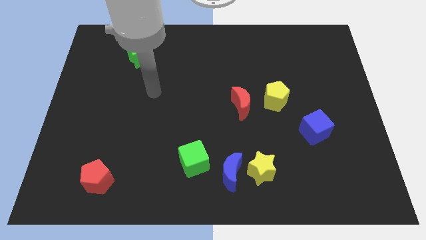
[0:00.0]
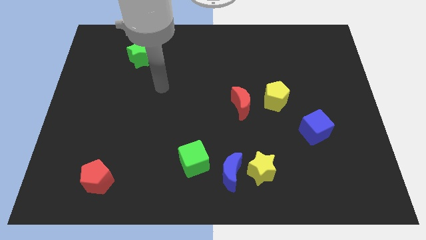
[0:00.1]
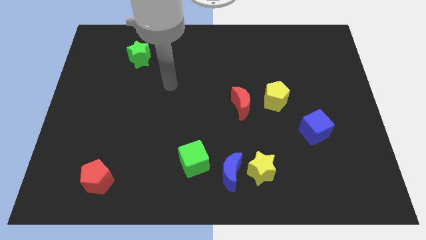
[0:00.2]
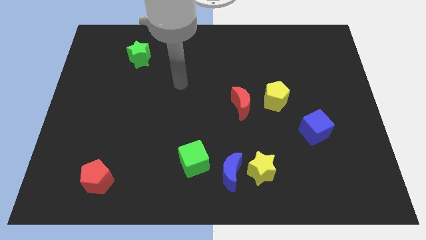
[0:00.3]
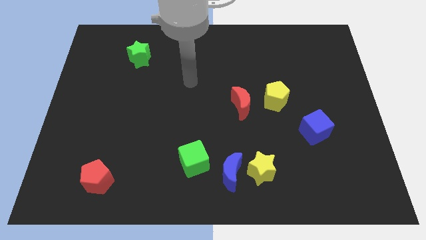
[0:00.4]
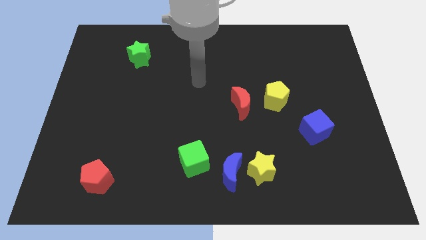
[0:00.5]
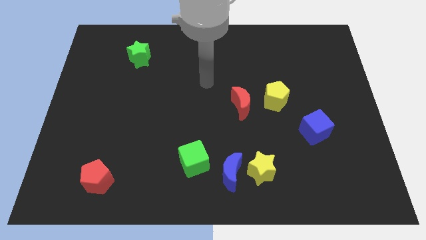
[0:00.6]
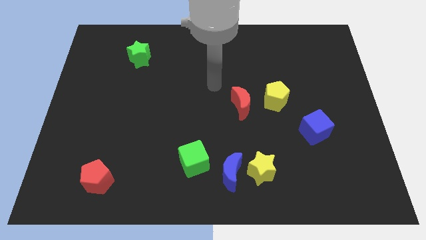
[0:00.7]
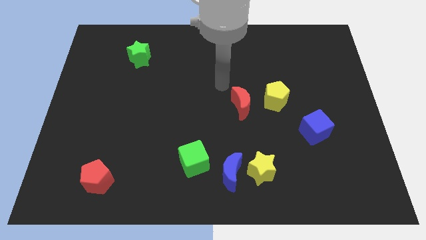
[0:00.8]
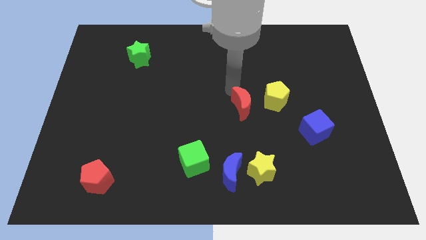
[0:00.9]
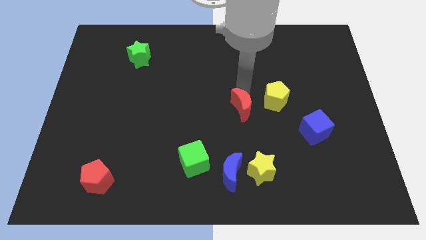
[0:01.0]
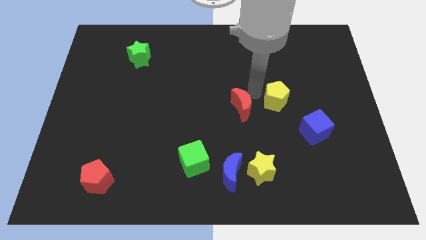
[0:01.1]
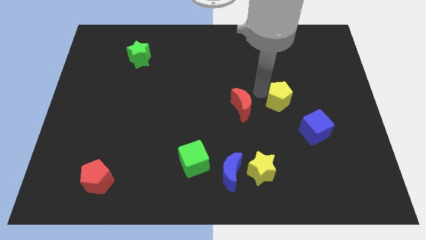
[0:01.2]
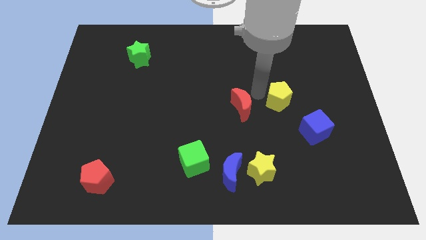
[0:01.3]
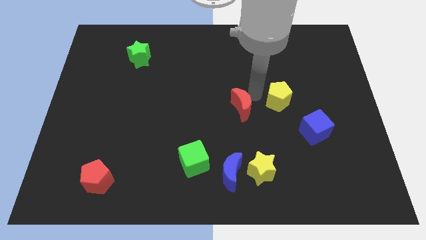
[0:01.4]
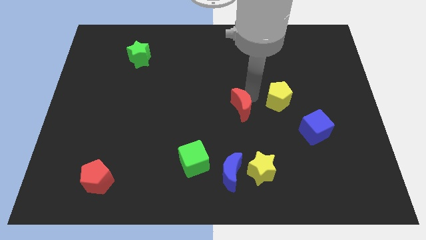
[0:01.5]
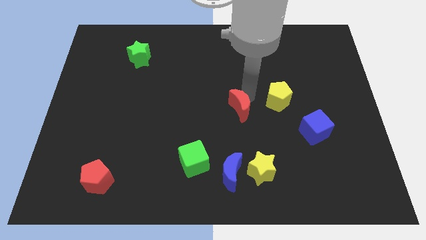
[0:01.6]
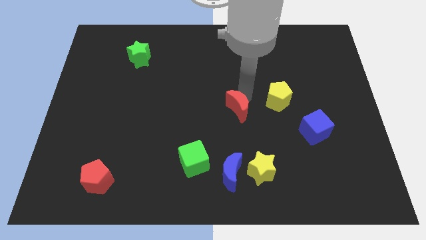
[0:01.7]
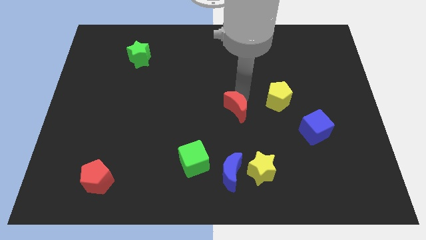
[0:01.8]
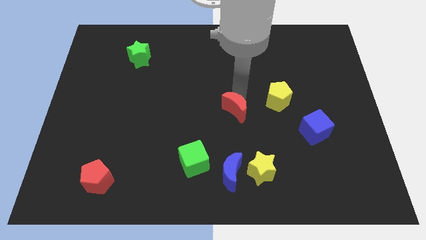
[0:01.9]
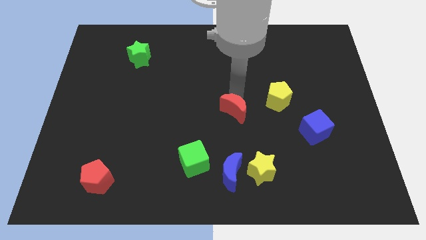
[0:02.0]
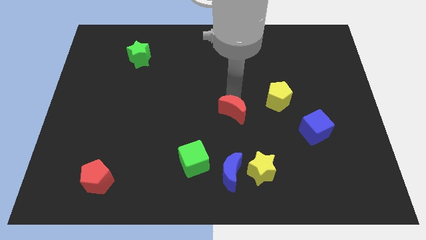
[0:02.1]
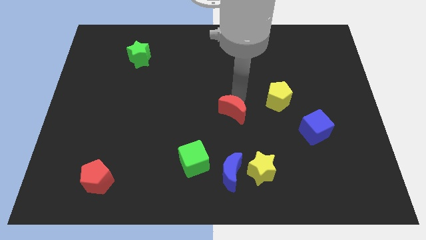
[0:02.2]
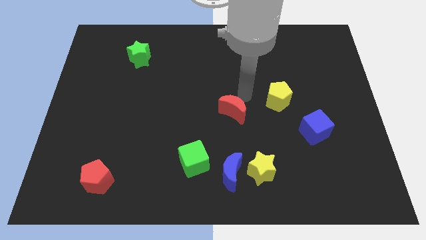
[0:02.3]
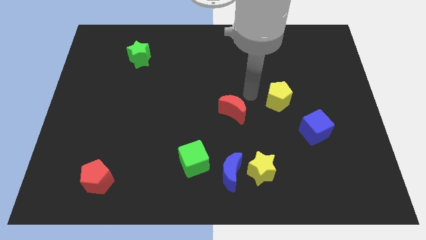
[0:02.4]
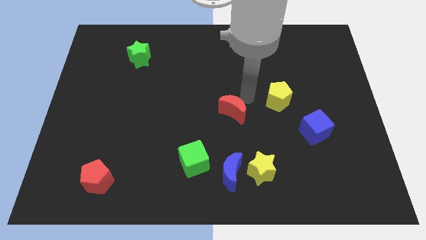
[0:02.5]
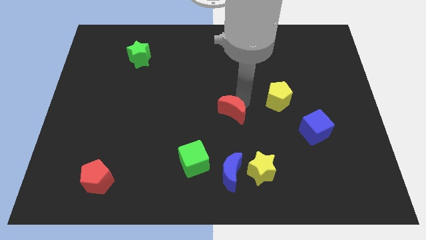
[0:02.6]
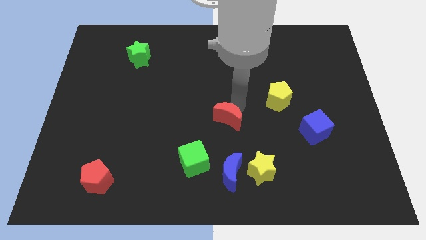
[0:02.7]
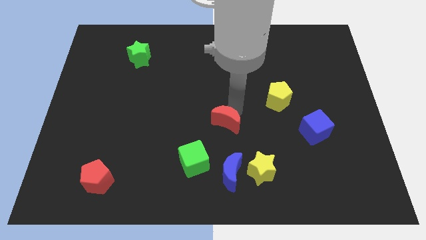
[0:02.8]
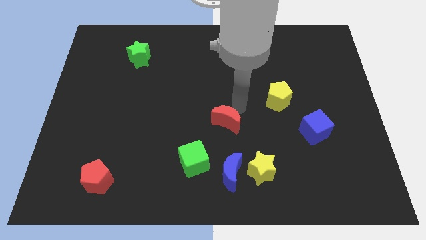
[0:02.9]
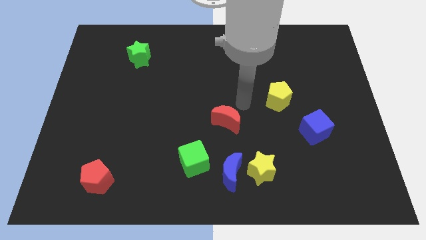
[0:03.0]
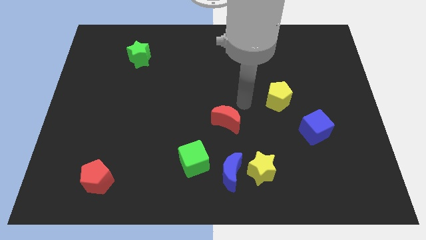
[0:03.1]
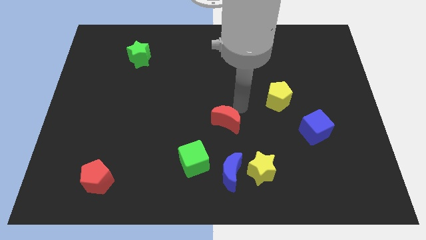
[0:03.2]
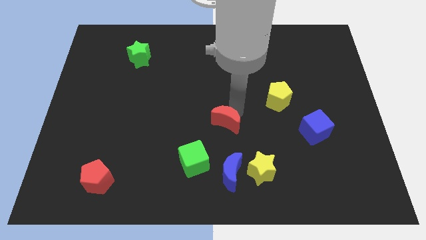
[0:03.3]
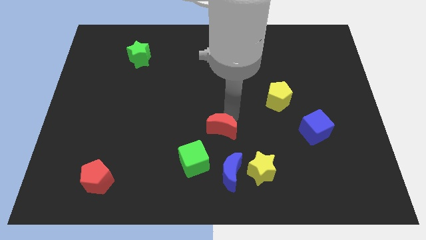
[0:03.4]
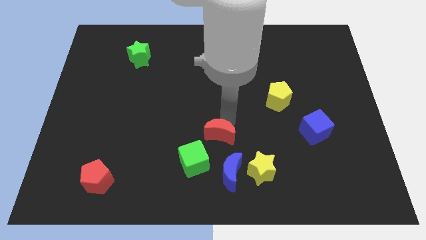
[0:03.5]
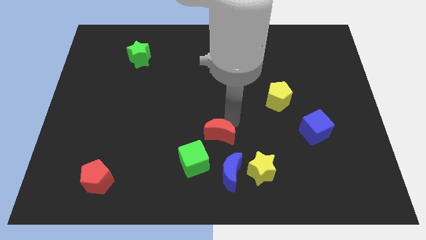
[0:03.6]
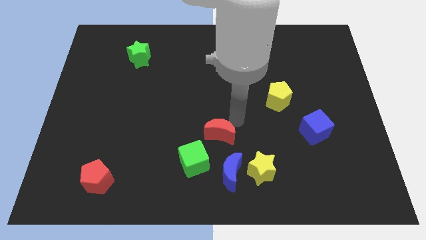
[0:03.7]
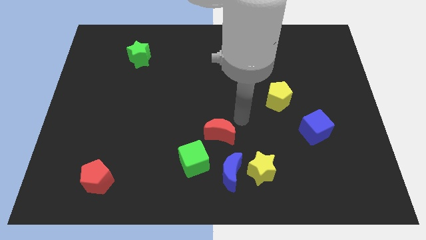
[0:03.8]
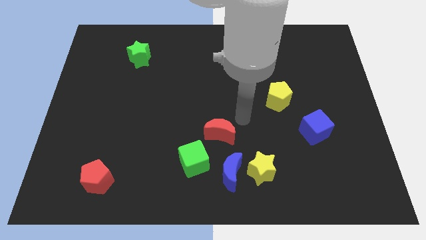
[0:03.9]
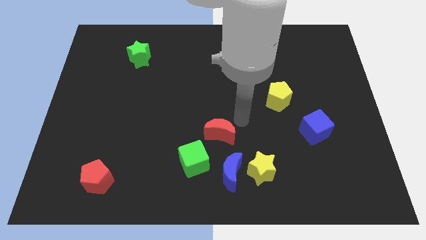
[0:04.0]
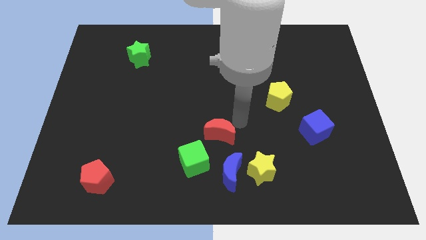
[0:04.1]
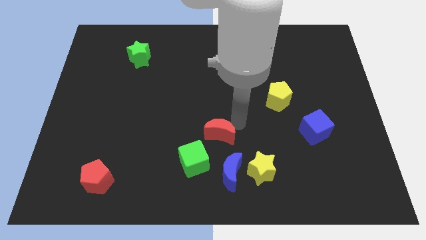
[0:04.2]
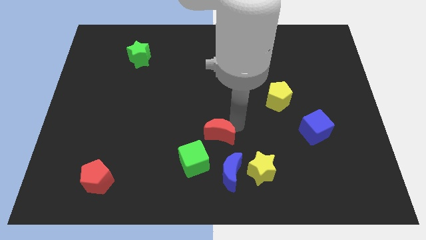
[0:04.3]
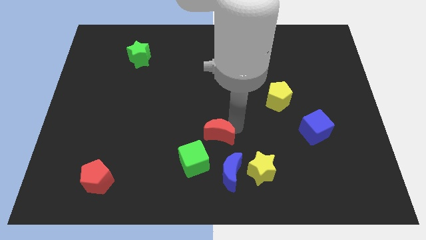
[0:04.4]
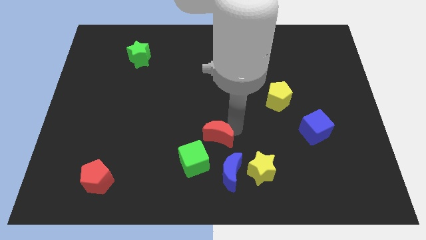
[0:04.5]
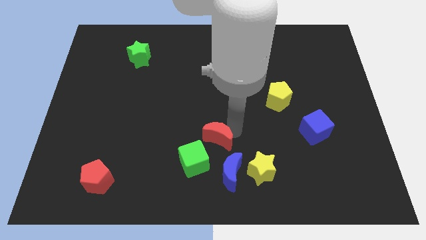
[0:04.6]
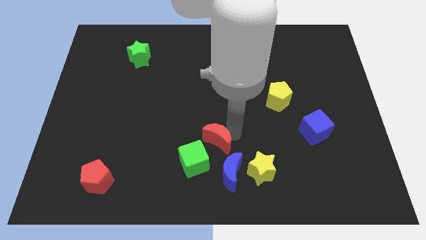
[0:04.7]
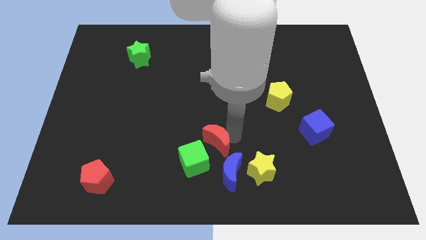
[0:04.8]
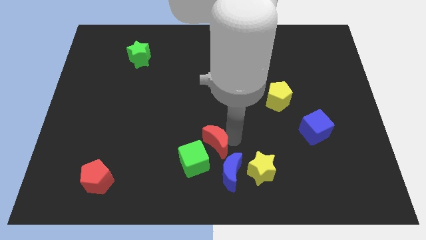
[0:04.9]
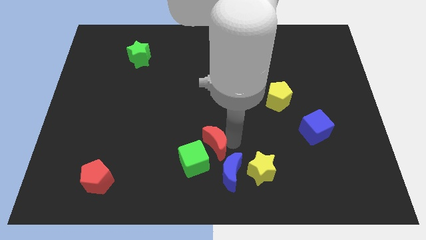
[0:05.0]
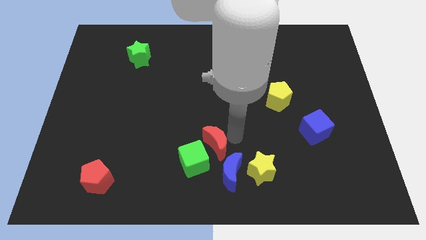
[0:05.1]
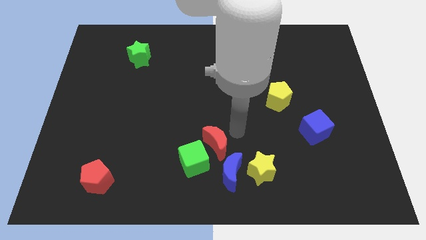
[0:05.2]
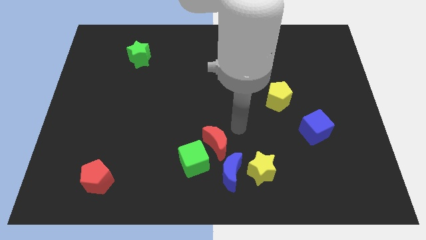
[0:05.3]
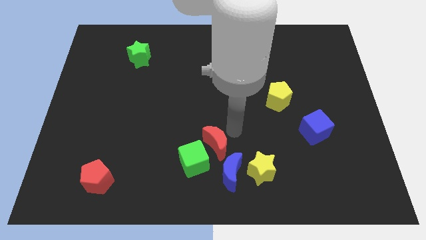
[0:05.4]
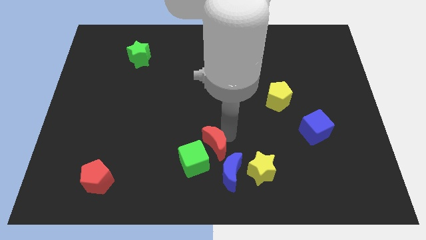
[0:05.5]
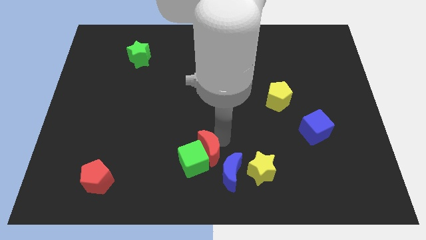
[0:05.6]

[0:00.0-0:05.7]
move the red moon to the green cube

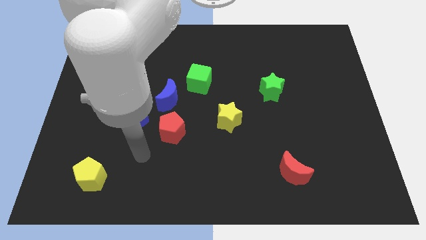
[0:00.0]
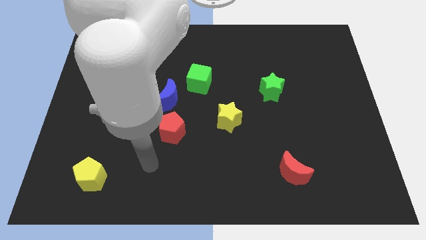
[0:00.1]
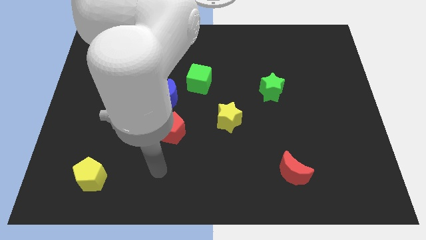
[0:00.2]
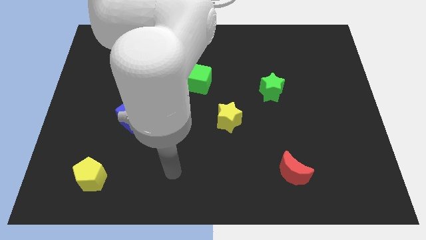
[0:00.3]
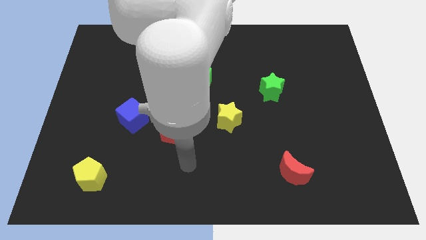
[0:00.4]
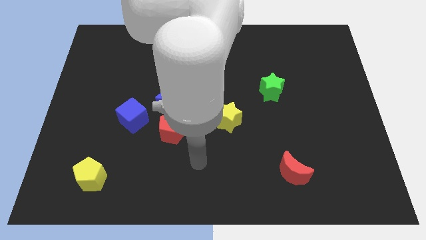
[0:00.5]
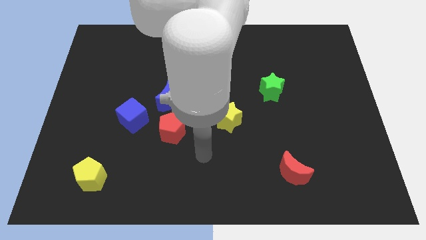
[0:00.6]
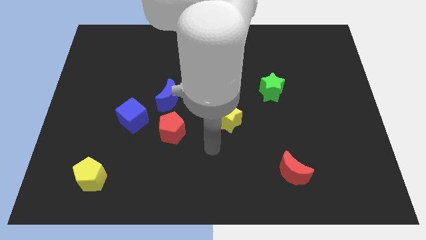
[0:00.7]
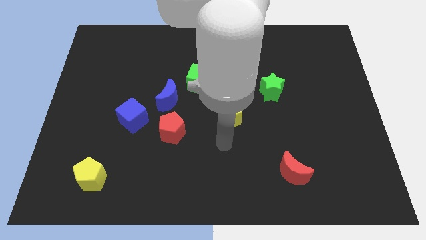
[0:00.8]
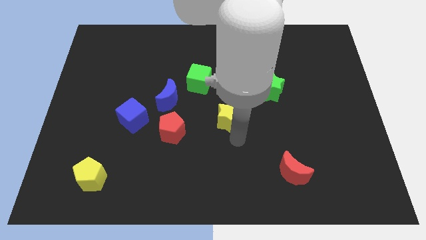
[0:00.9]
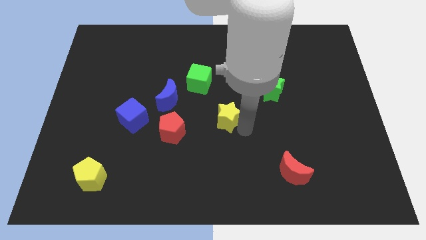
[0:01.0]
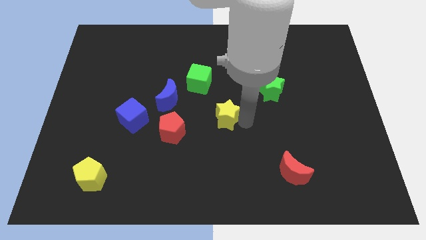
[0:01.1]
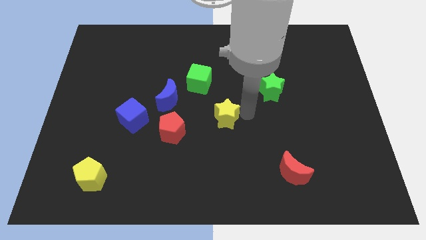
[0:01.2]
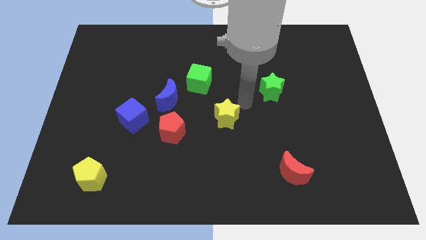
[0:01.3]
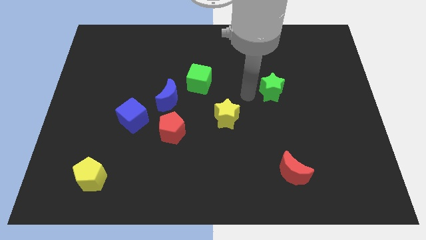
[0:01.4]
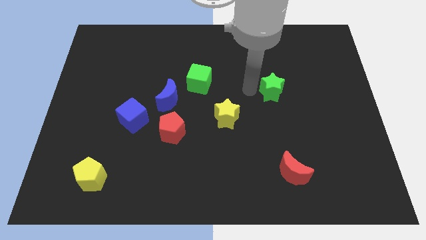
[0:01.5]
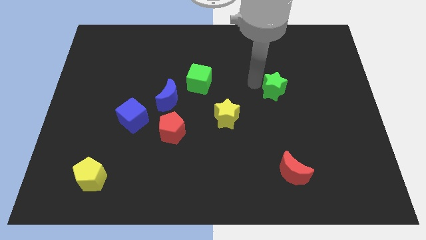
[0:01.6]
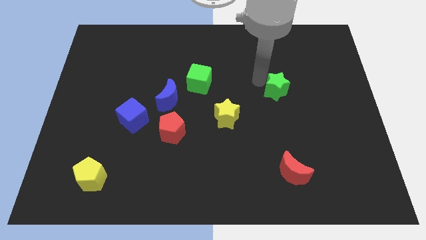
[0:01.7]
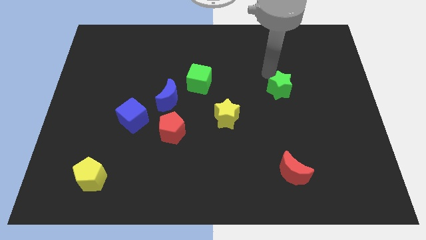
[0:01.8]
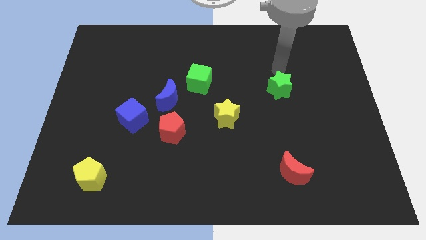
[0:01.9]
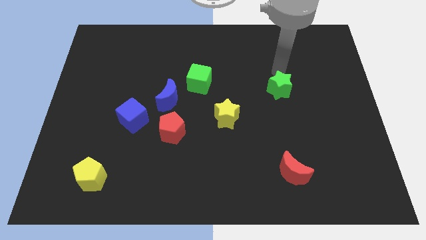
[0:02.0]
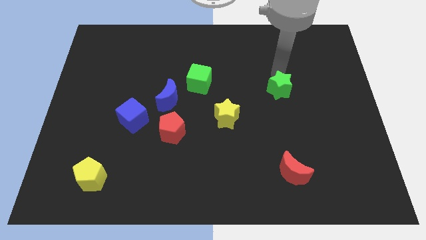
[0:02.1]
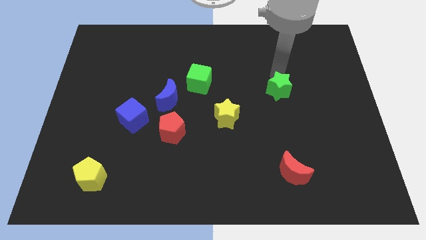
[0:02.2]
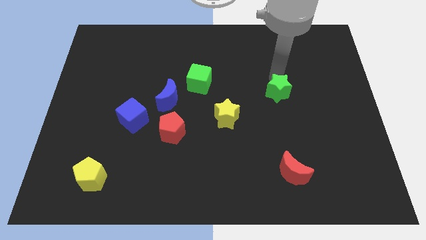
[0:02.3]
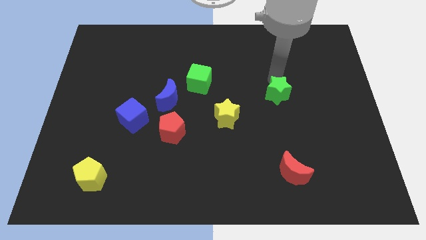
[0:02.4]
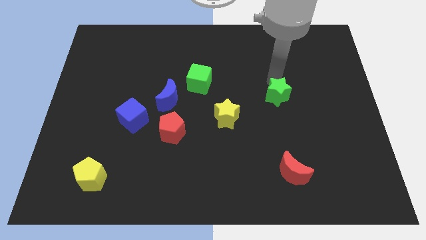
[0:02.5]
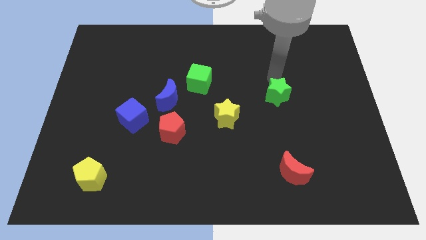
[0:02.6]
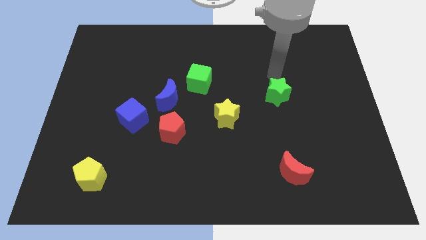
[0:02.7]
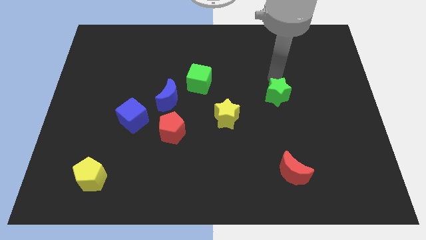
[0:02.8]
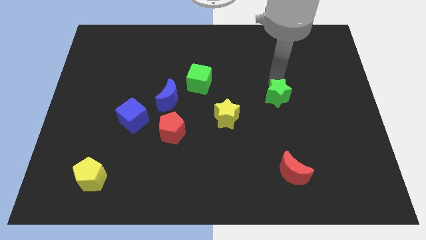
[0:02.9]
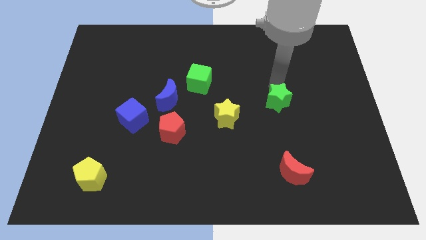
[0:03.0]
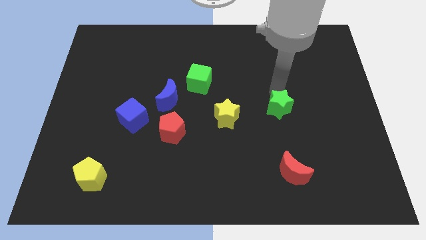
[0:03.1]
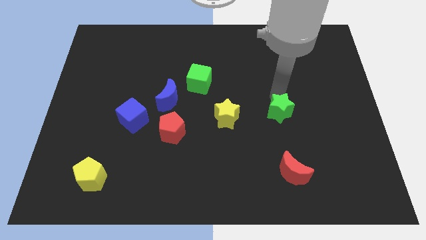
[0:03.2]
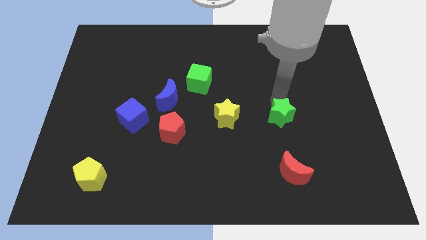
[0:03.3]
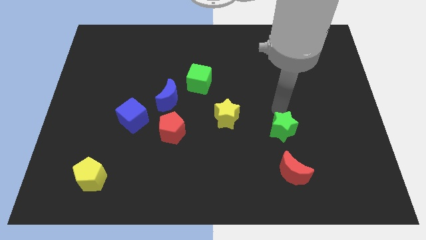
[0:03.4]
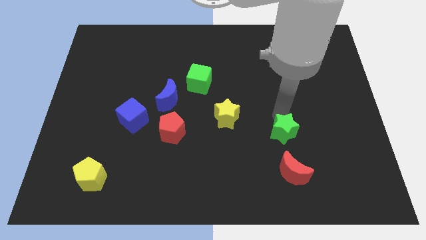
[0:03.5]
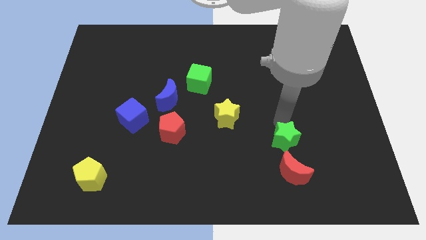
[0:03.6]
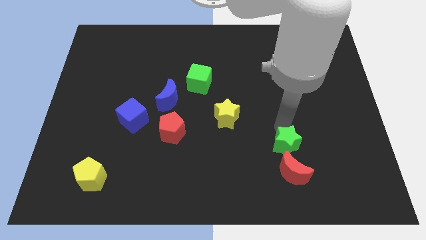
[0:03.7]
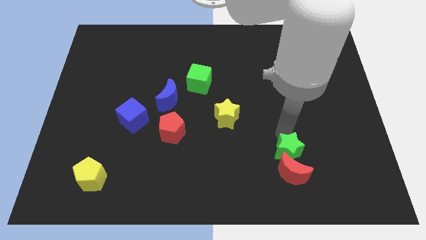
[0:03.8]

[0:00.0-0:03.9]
put the green star towards the red moon
